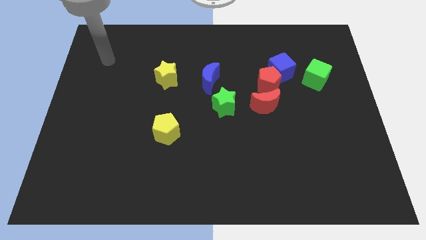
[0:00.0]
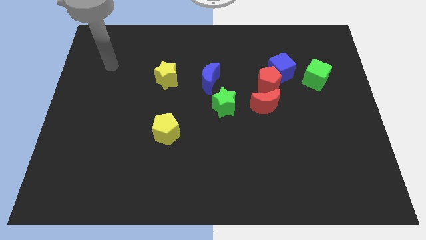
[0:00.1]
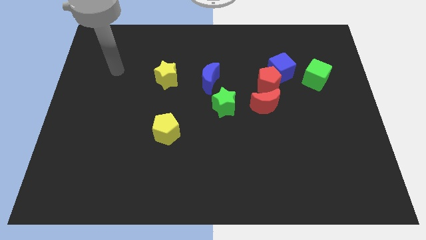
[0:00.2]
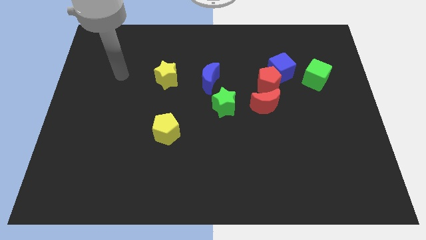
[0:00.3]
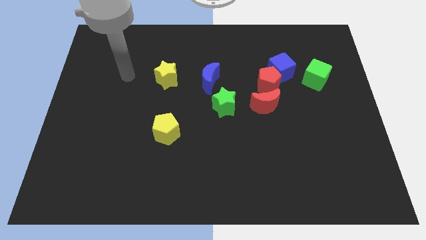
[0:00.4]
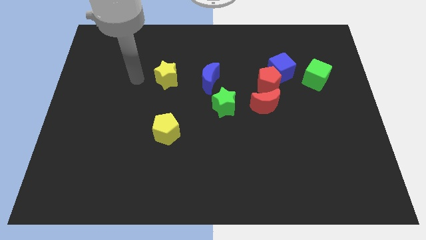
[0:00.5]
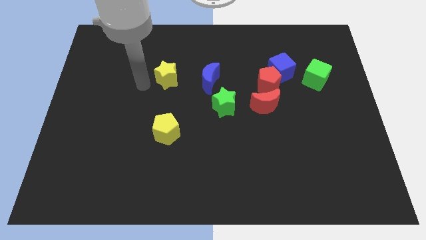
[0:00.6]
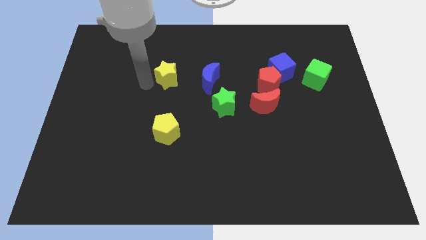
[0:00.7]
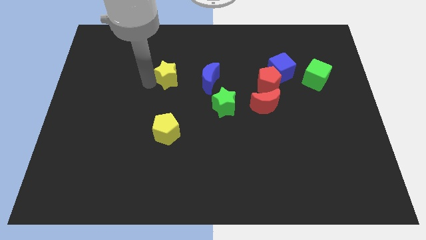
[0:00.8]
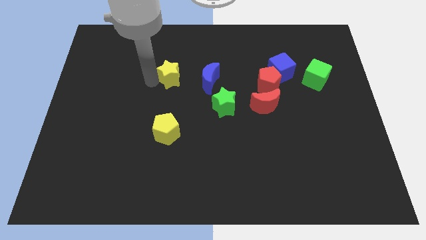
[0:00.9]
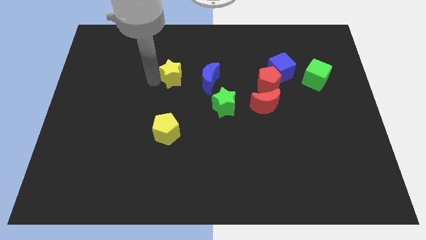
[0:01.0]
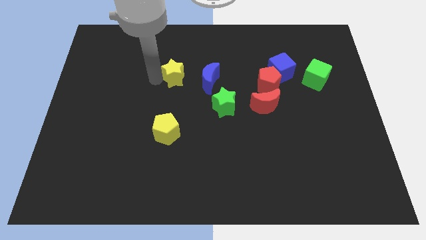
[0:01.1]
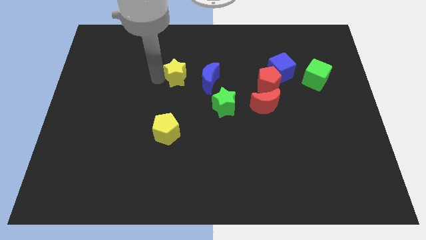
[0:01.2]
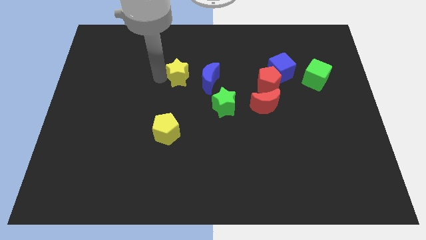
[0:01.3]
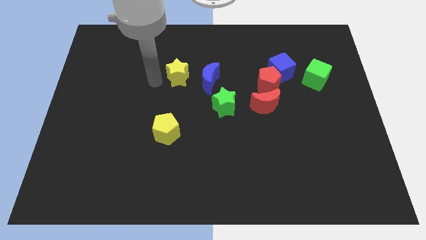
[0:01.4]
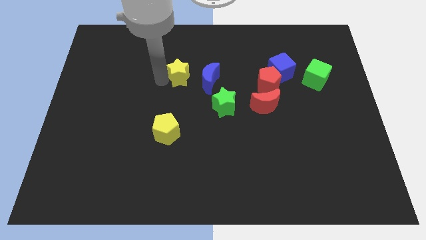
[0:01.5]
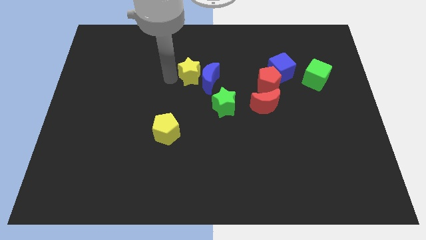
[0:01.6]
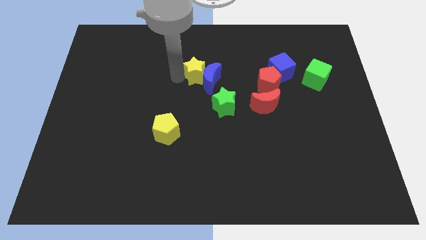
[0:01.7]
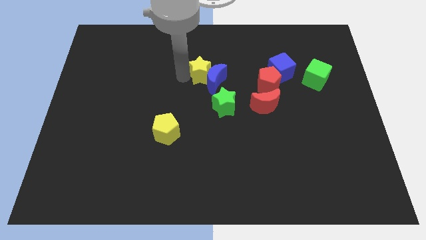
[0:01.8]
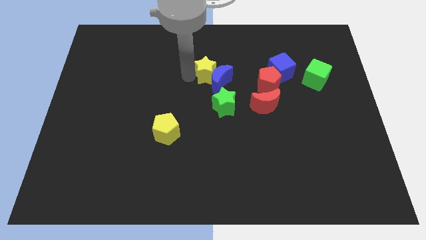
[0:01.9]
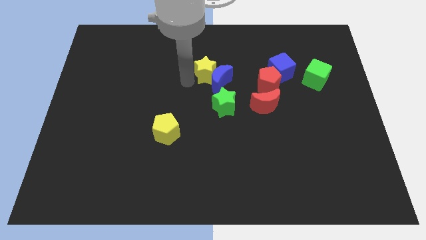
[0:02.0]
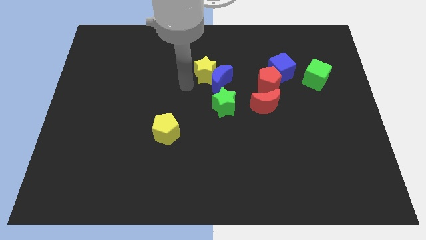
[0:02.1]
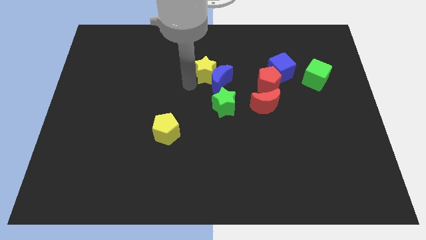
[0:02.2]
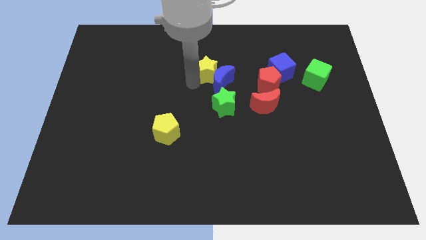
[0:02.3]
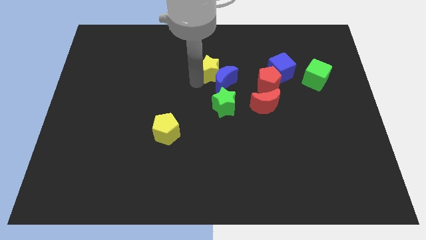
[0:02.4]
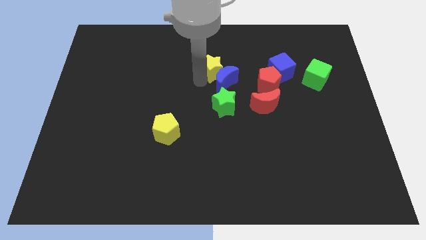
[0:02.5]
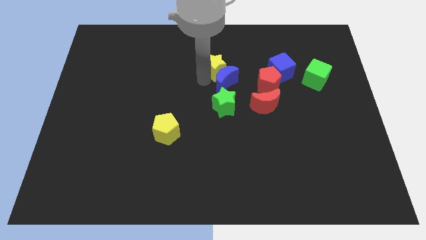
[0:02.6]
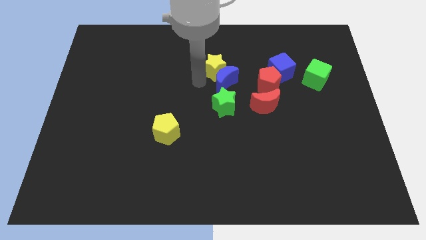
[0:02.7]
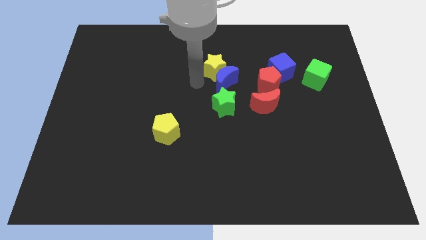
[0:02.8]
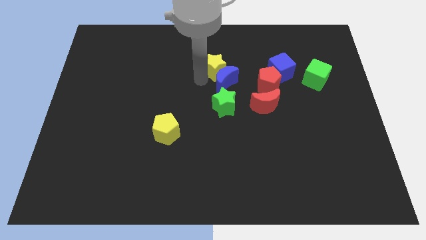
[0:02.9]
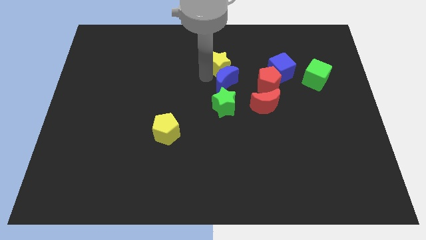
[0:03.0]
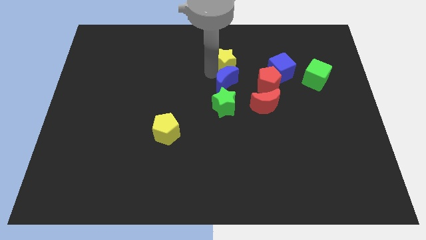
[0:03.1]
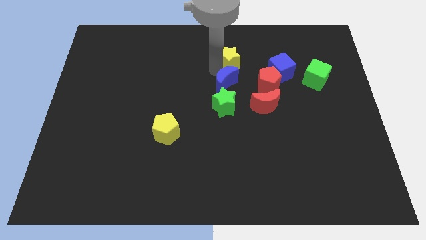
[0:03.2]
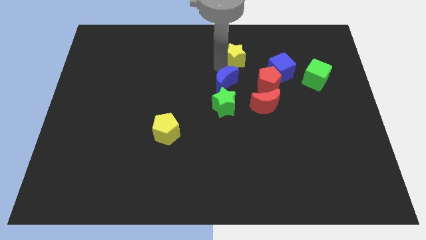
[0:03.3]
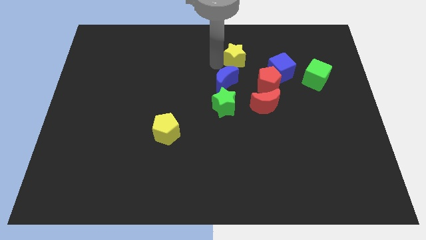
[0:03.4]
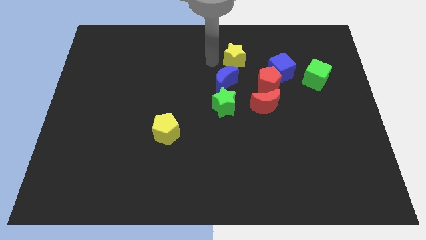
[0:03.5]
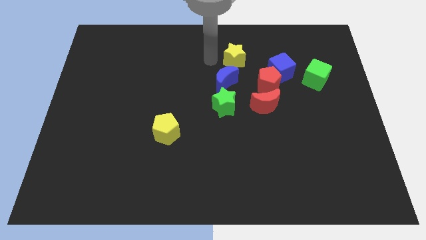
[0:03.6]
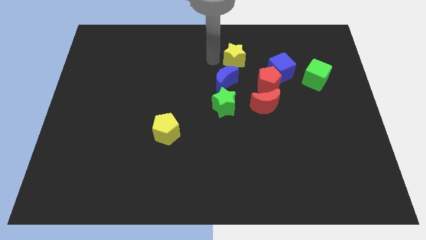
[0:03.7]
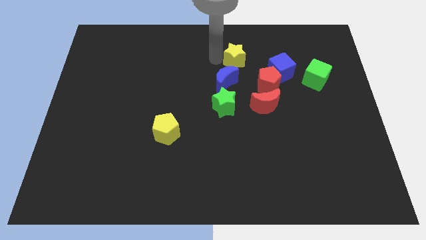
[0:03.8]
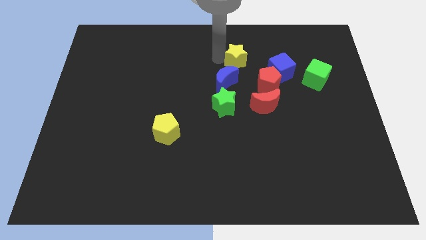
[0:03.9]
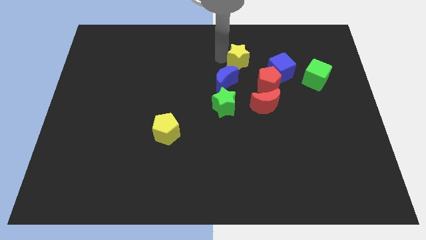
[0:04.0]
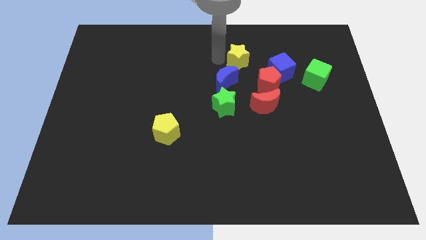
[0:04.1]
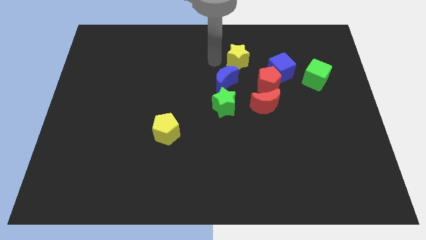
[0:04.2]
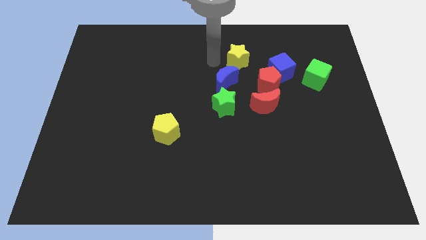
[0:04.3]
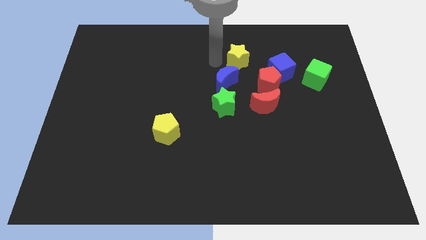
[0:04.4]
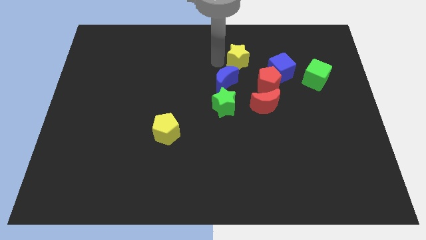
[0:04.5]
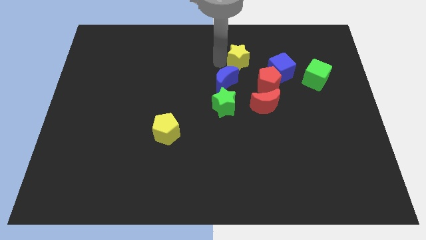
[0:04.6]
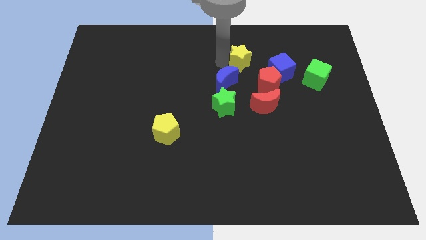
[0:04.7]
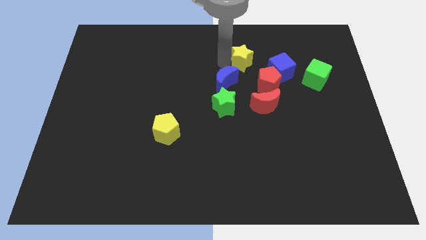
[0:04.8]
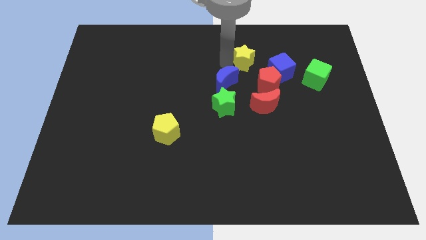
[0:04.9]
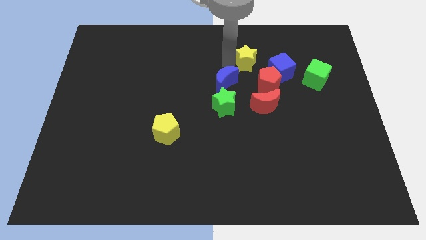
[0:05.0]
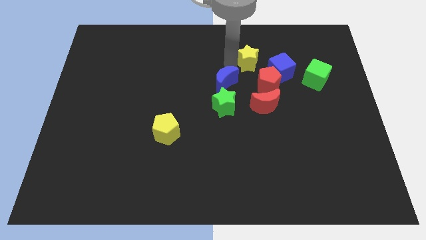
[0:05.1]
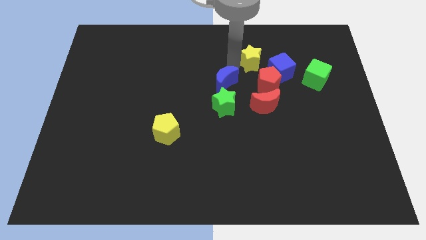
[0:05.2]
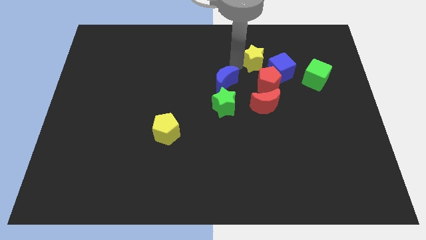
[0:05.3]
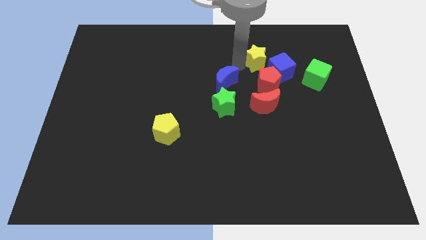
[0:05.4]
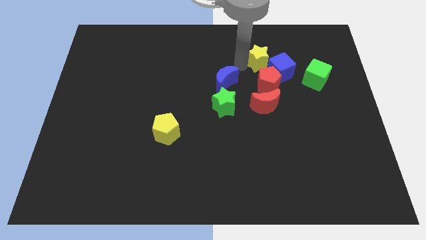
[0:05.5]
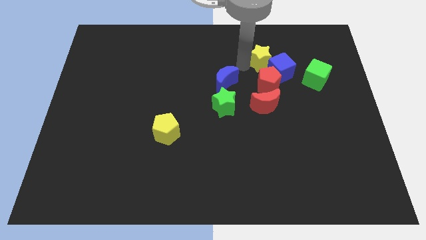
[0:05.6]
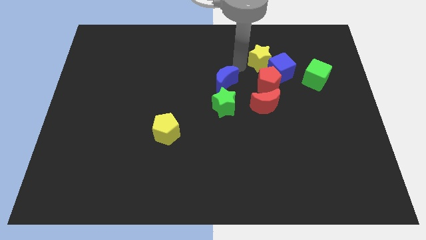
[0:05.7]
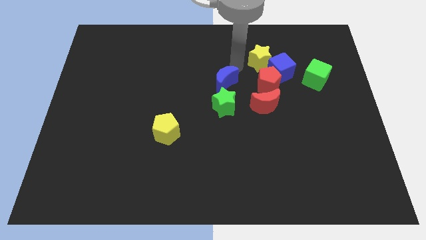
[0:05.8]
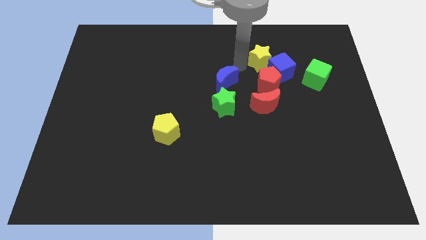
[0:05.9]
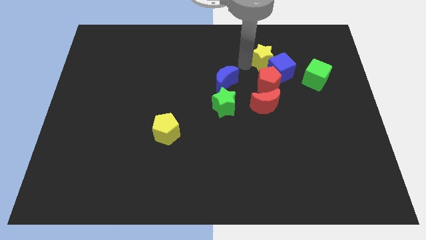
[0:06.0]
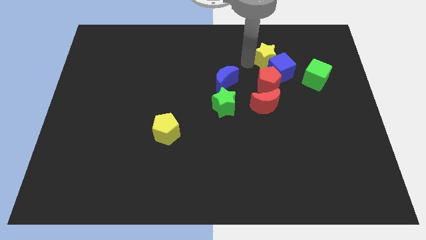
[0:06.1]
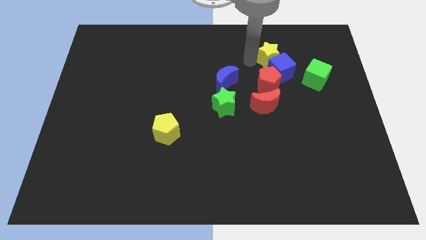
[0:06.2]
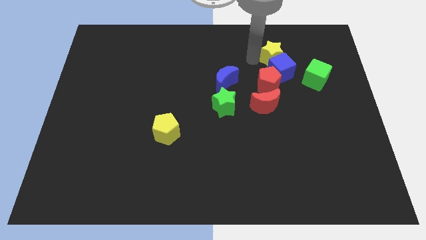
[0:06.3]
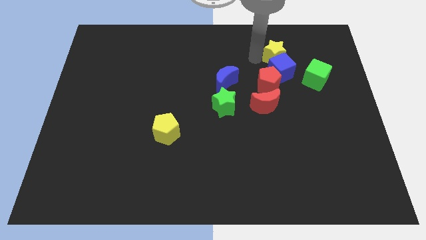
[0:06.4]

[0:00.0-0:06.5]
put the yellow star to the top right side of the blue cube
